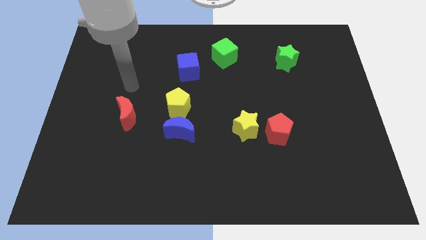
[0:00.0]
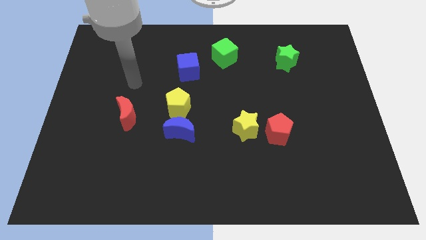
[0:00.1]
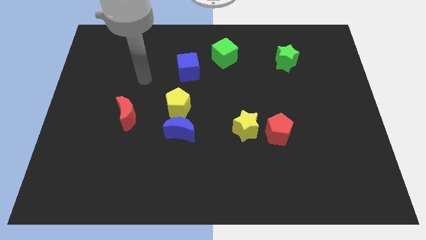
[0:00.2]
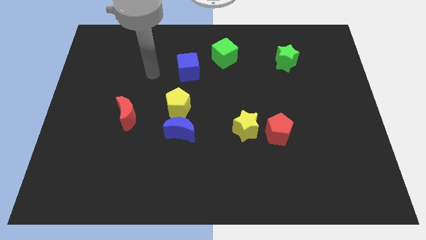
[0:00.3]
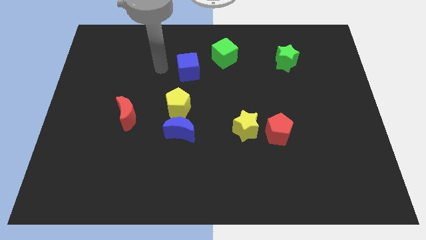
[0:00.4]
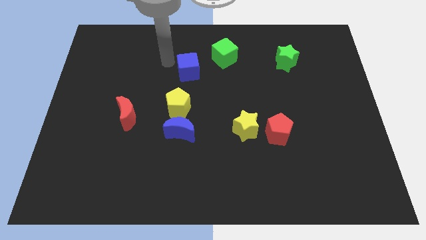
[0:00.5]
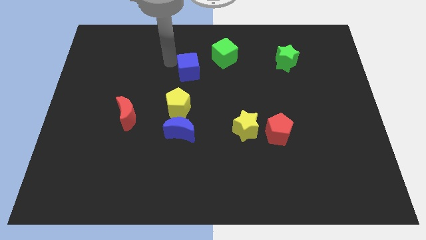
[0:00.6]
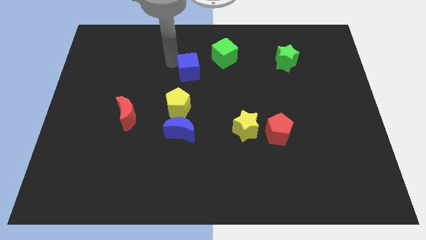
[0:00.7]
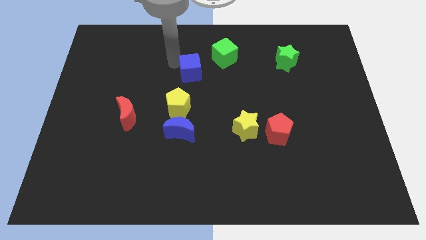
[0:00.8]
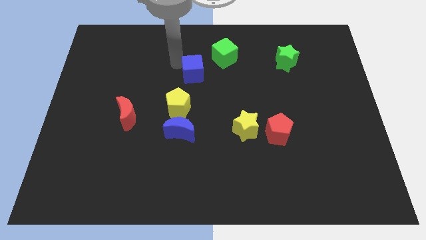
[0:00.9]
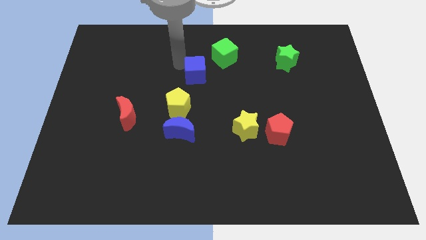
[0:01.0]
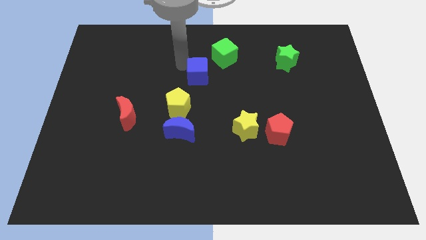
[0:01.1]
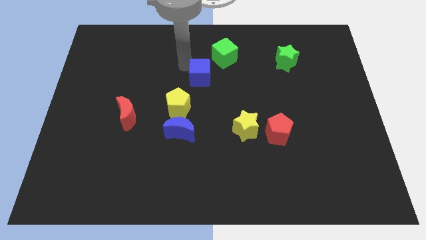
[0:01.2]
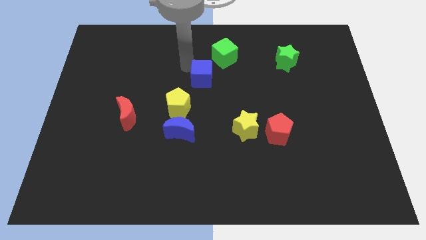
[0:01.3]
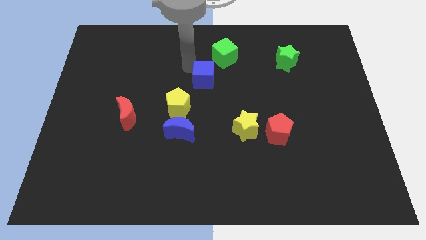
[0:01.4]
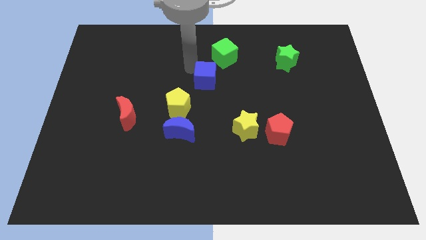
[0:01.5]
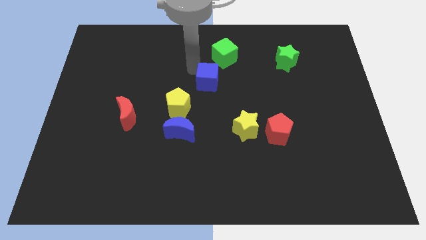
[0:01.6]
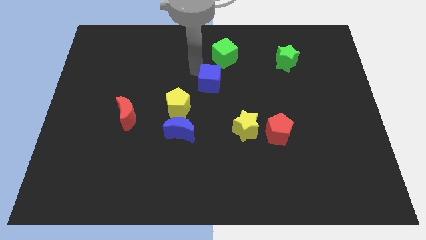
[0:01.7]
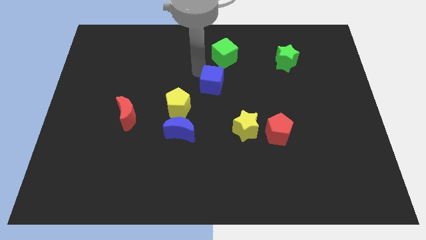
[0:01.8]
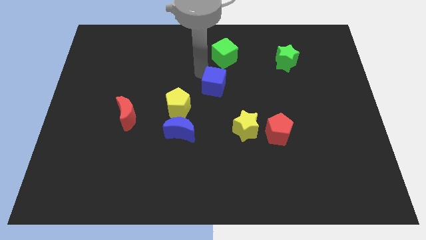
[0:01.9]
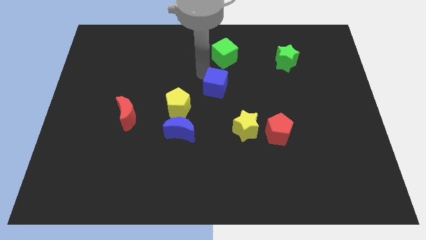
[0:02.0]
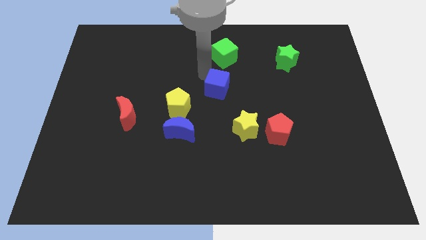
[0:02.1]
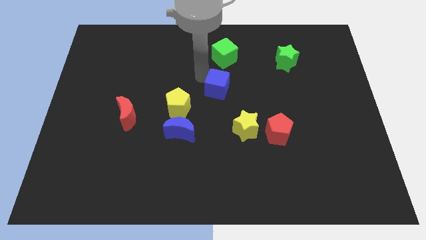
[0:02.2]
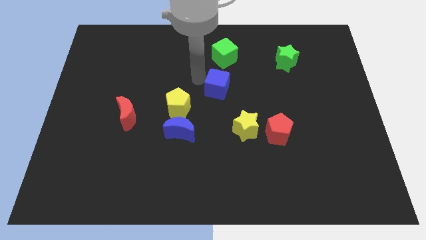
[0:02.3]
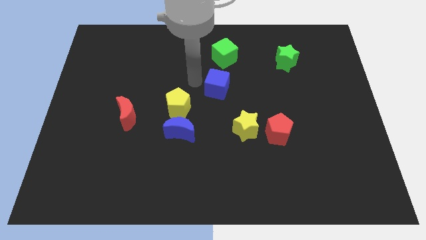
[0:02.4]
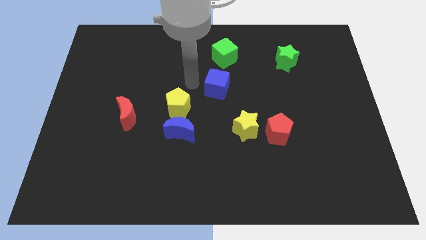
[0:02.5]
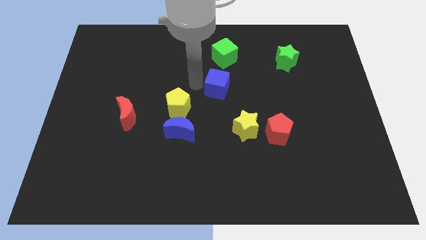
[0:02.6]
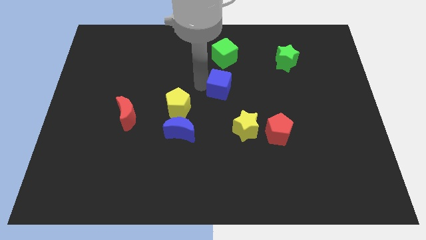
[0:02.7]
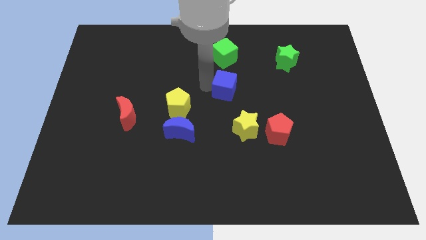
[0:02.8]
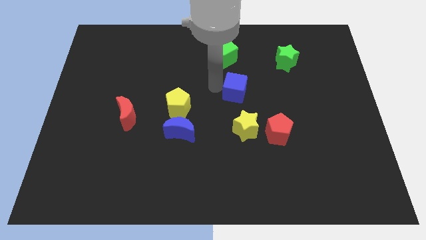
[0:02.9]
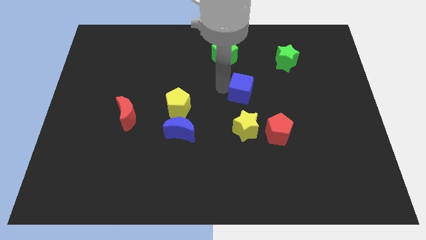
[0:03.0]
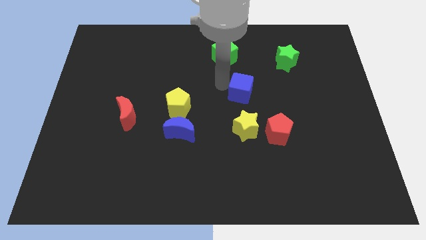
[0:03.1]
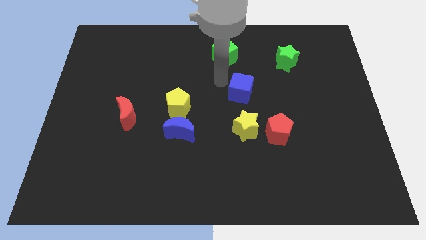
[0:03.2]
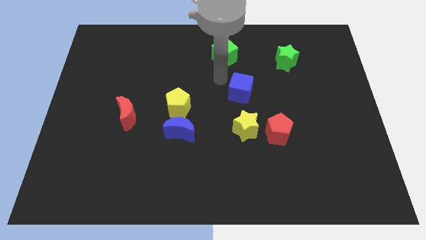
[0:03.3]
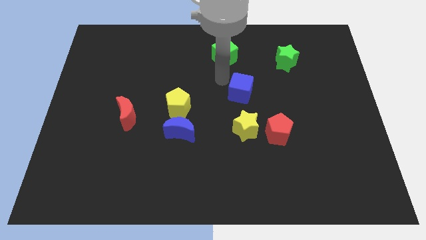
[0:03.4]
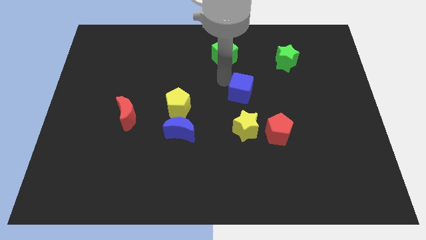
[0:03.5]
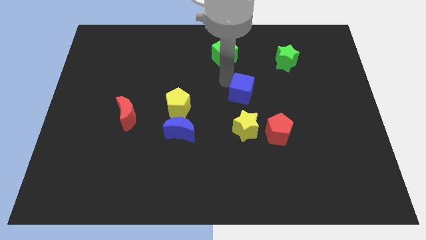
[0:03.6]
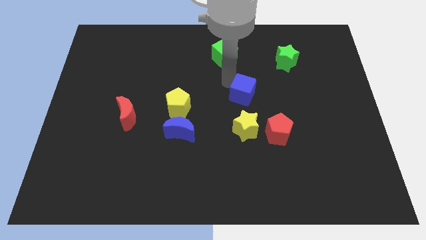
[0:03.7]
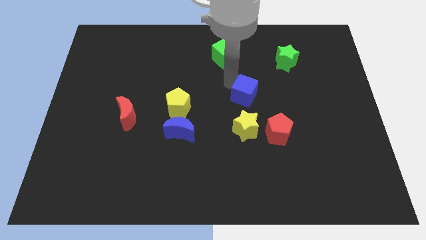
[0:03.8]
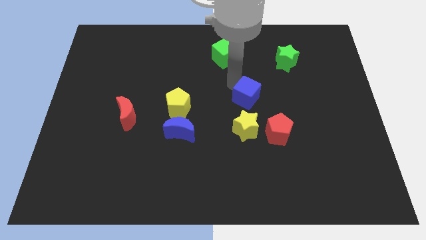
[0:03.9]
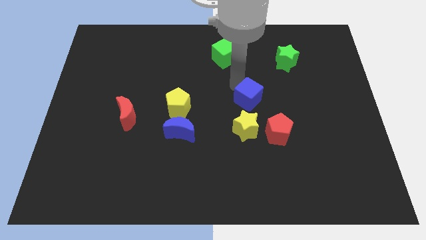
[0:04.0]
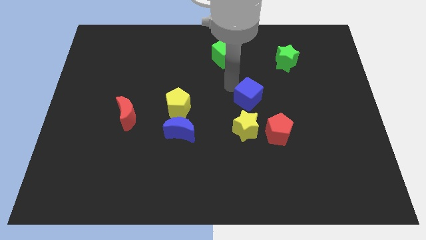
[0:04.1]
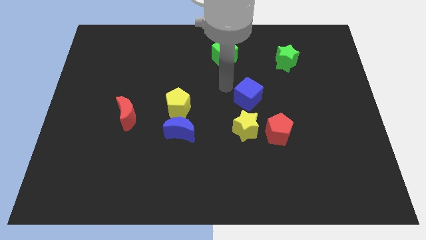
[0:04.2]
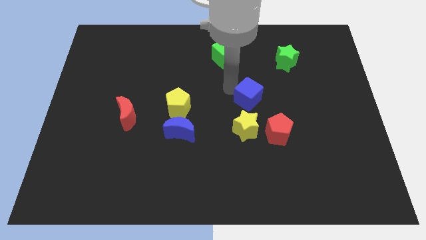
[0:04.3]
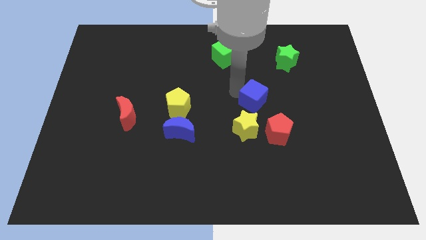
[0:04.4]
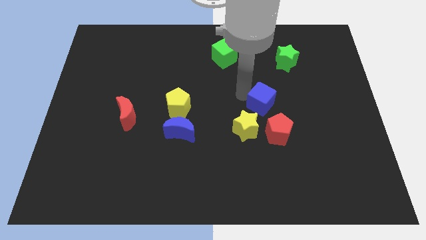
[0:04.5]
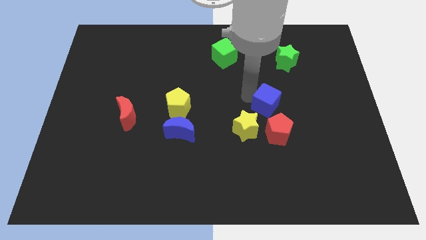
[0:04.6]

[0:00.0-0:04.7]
move the blue cube down and to the right diagonally

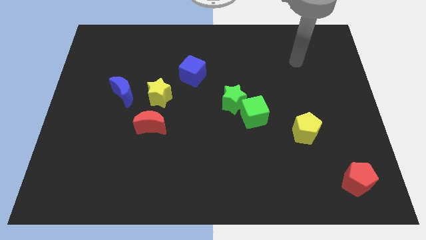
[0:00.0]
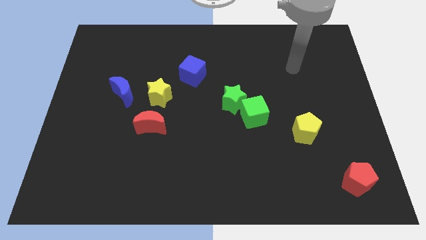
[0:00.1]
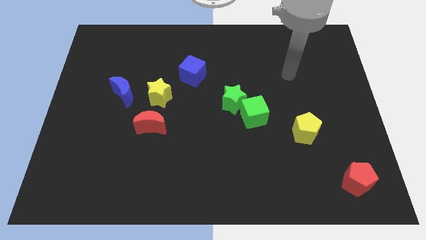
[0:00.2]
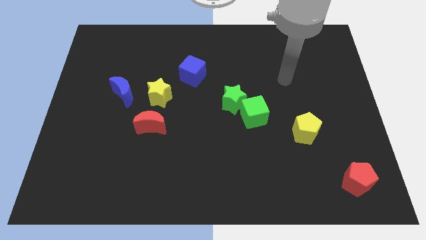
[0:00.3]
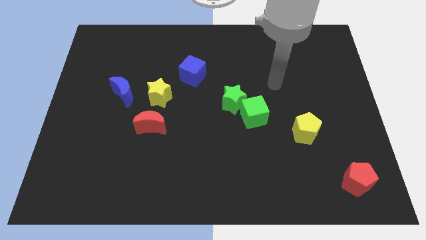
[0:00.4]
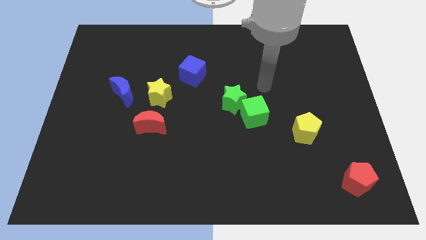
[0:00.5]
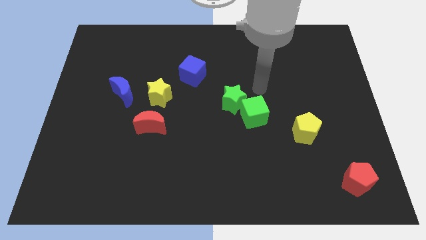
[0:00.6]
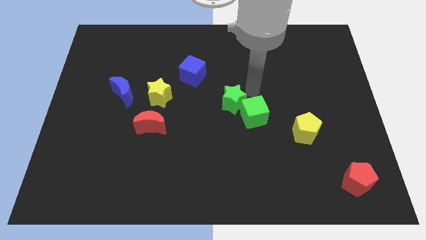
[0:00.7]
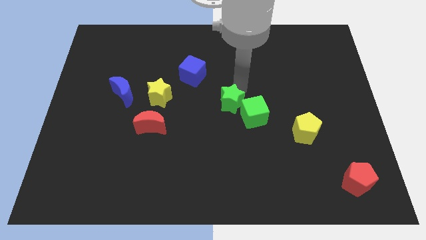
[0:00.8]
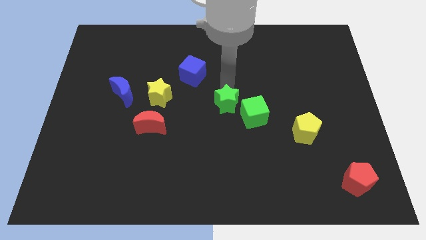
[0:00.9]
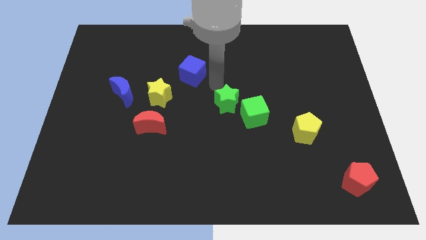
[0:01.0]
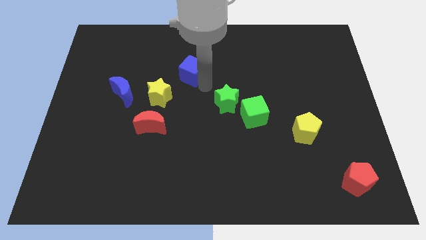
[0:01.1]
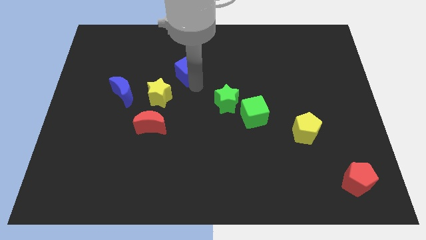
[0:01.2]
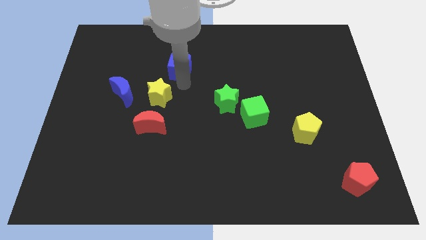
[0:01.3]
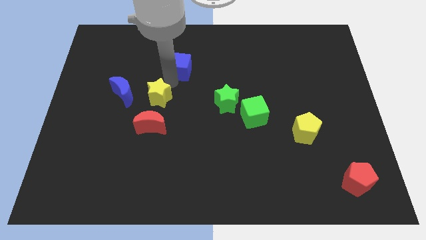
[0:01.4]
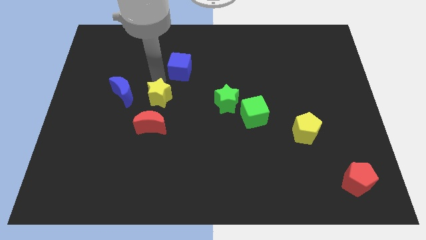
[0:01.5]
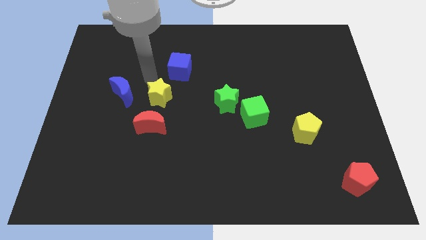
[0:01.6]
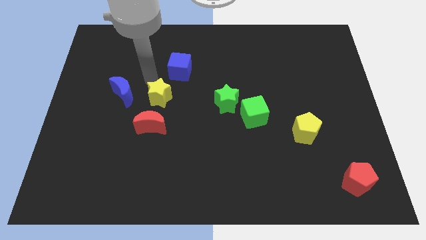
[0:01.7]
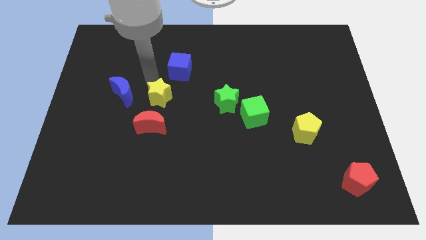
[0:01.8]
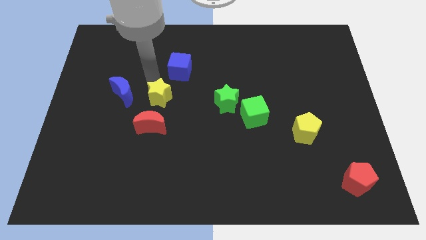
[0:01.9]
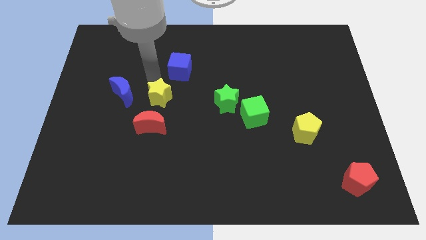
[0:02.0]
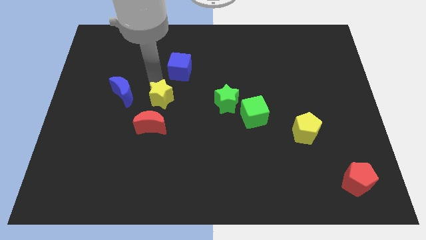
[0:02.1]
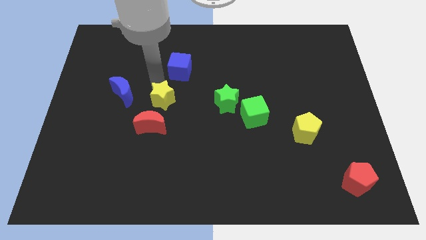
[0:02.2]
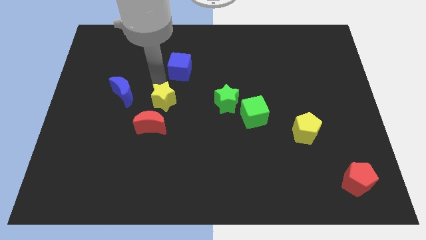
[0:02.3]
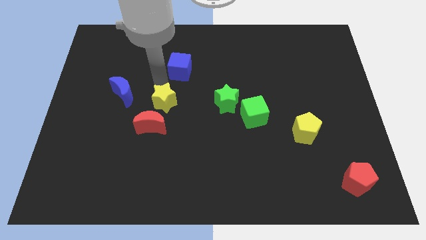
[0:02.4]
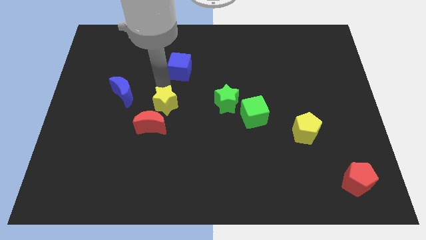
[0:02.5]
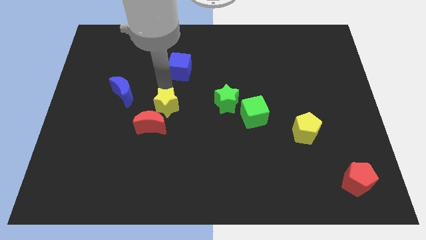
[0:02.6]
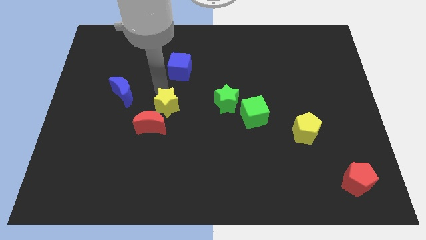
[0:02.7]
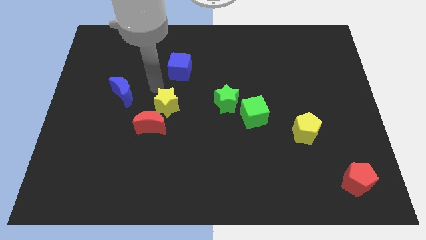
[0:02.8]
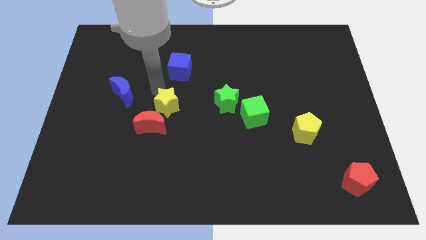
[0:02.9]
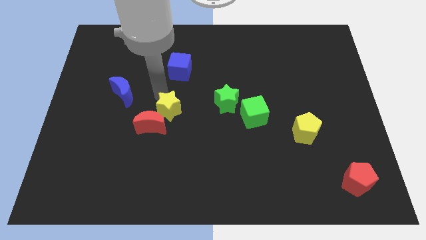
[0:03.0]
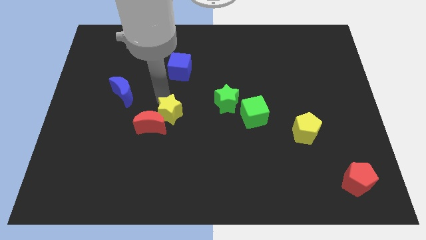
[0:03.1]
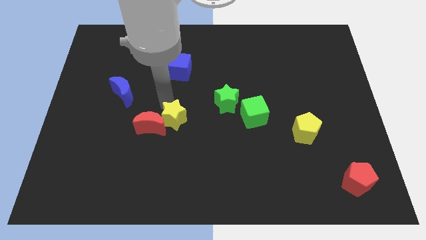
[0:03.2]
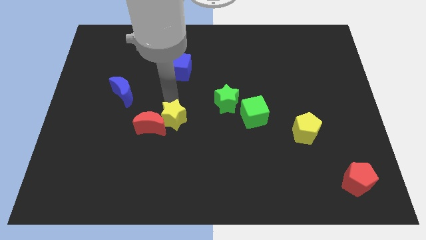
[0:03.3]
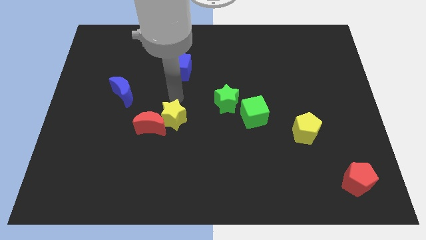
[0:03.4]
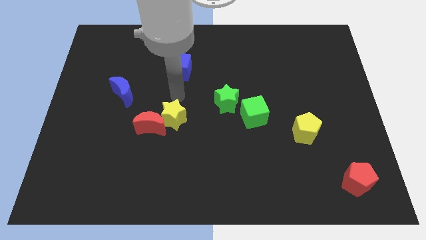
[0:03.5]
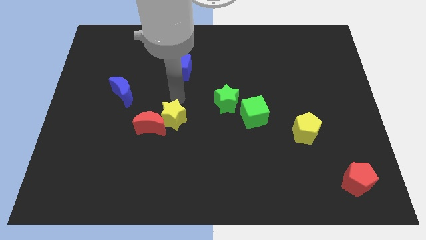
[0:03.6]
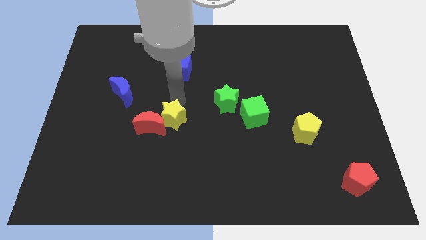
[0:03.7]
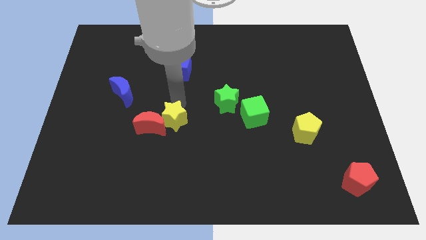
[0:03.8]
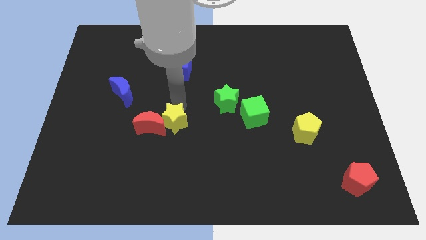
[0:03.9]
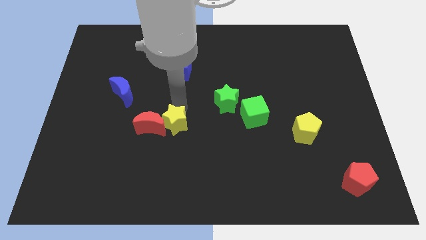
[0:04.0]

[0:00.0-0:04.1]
slightly move the yellow star down
